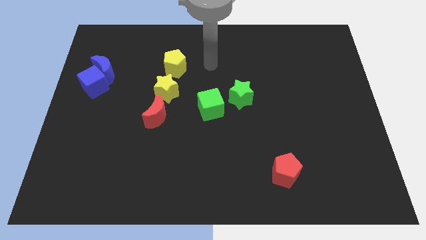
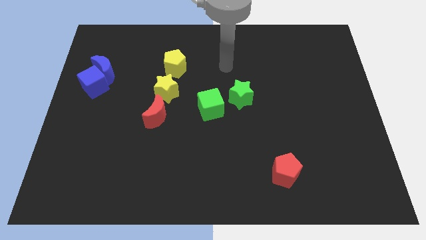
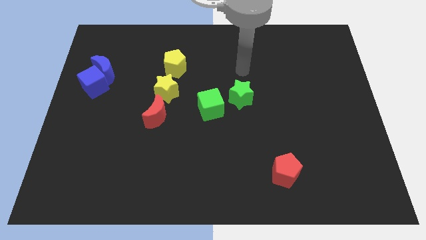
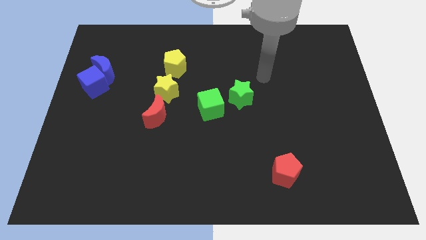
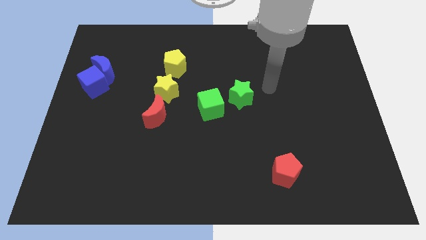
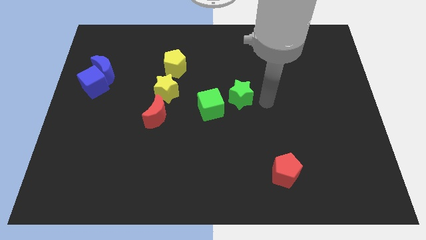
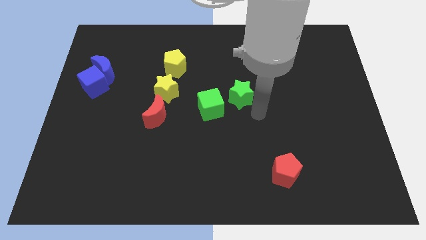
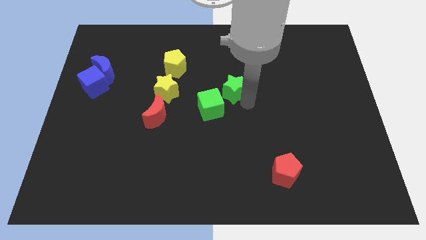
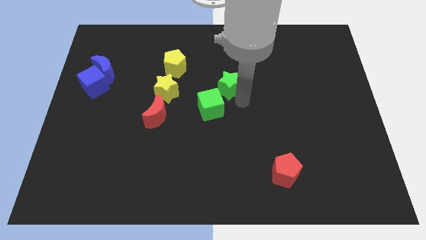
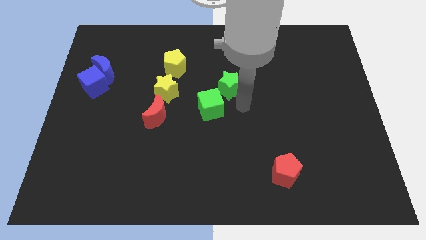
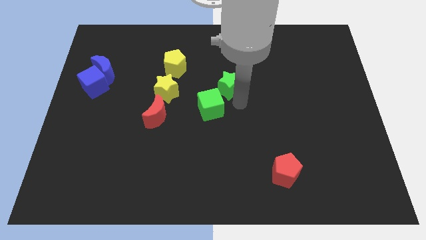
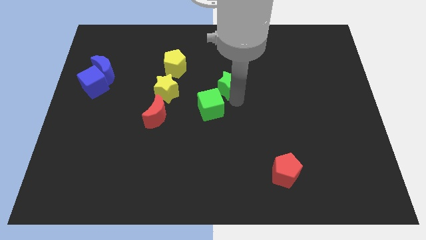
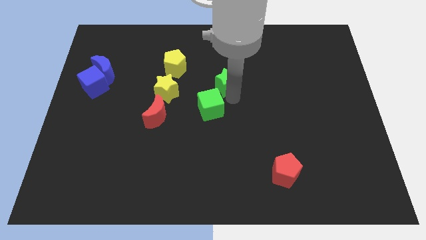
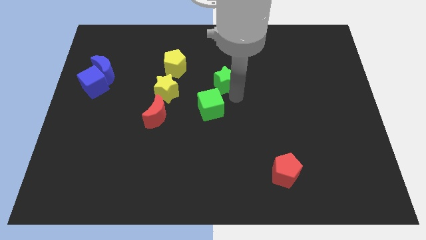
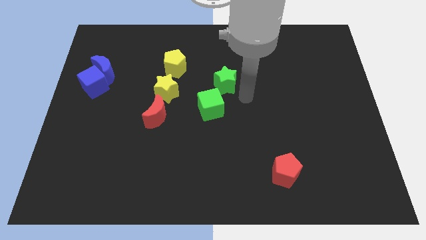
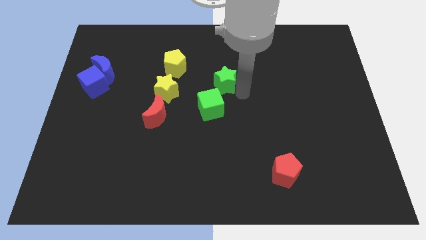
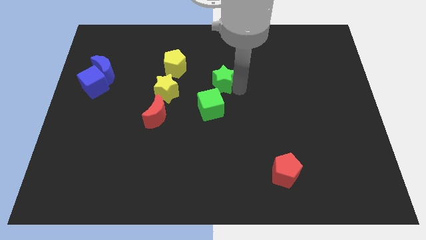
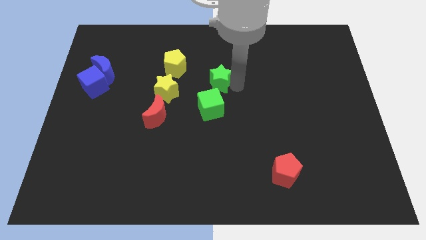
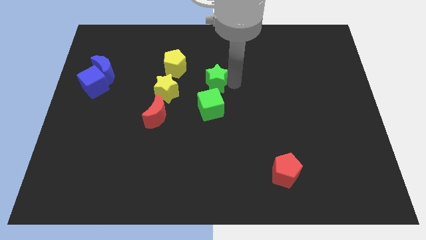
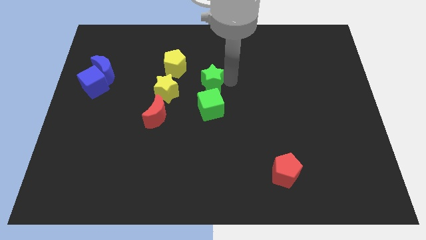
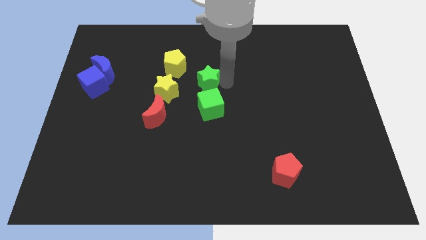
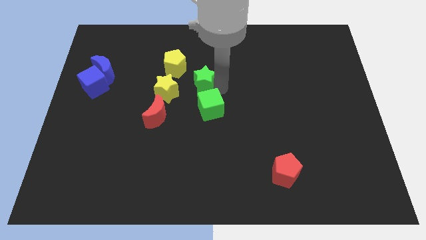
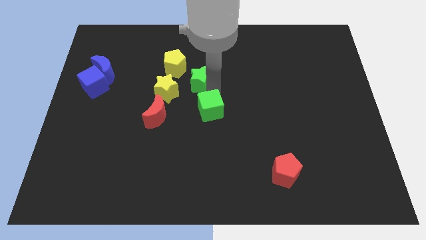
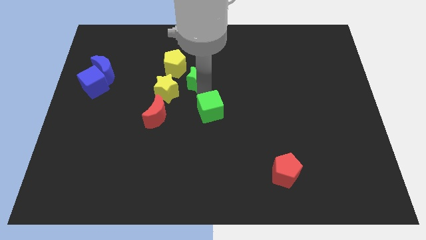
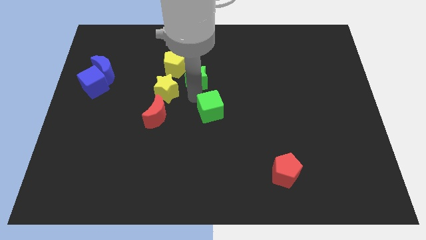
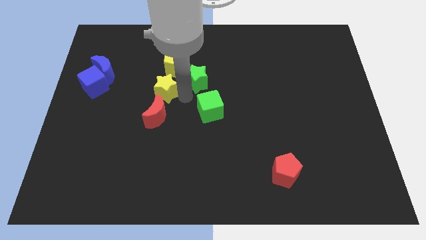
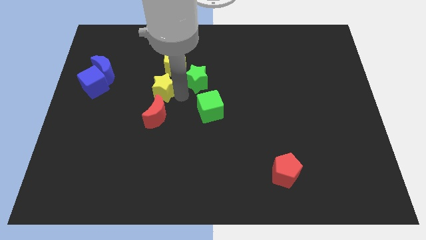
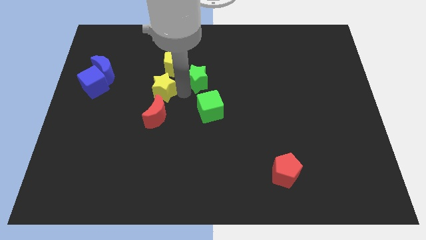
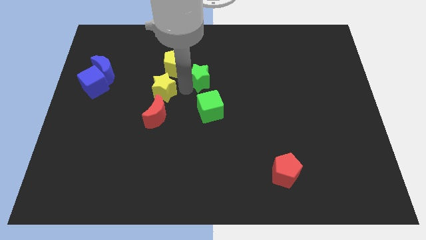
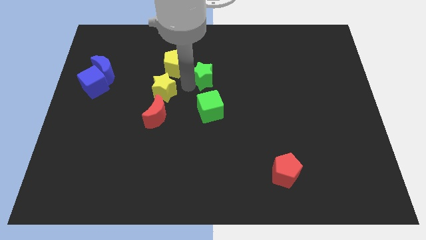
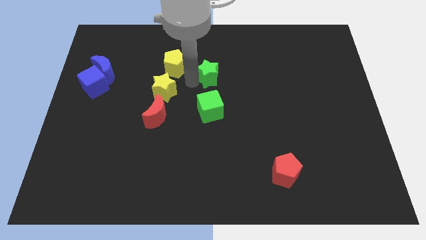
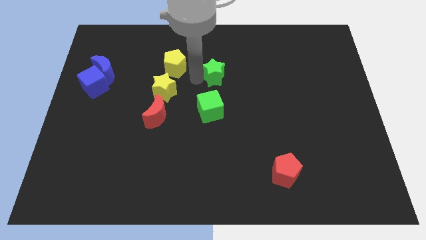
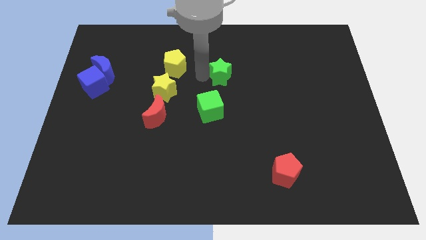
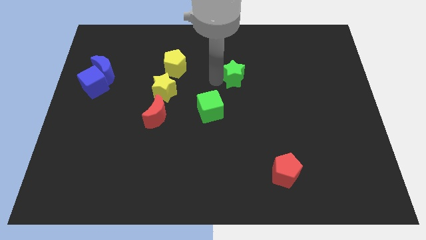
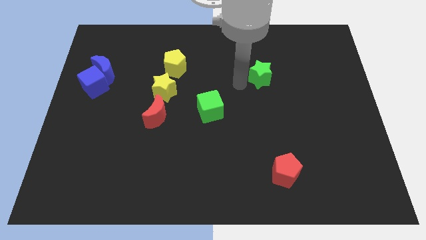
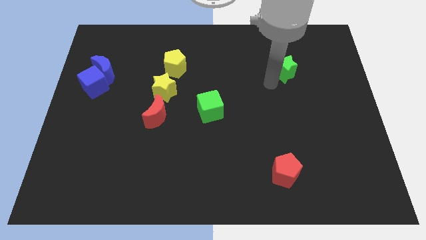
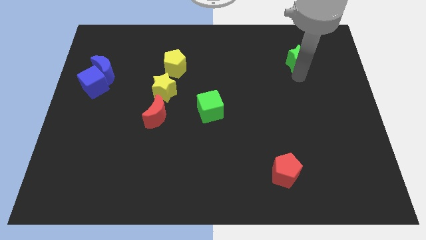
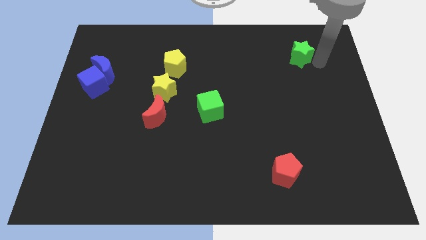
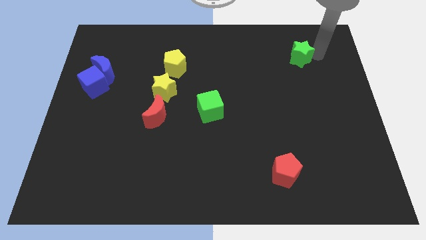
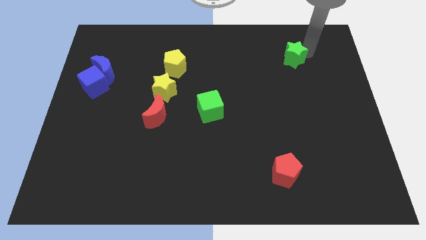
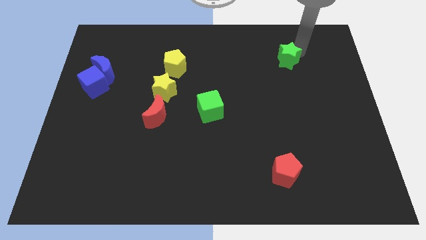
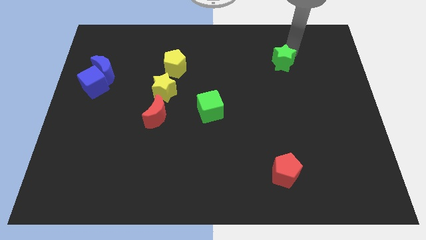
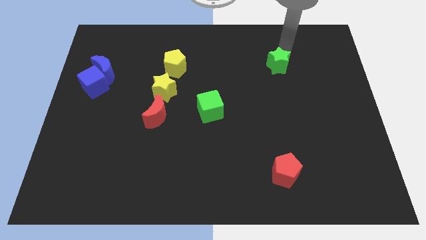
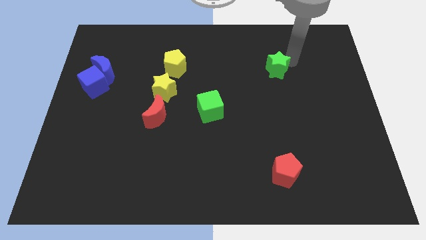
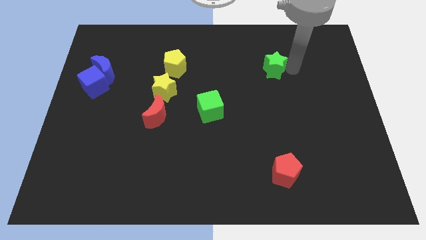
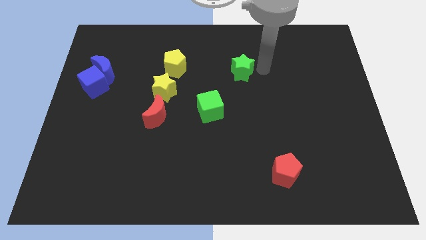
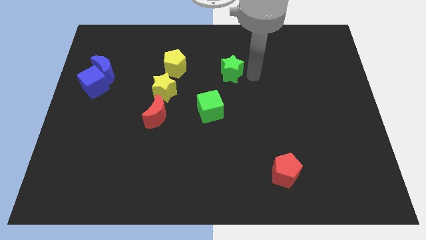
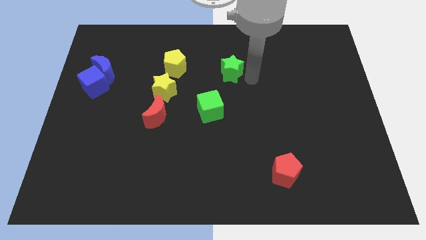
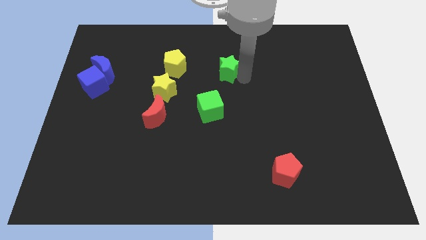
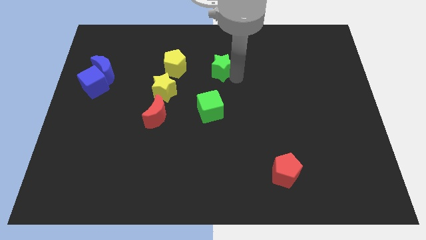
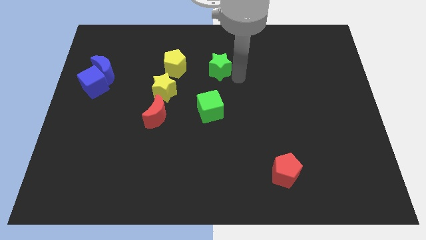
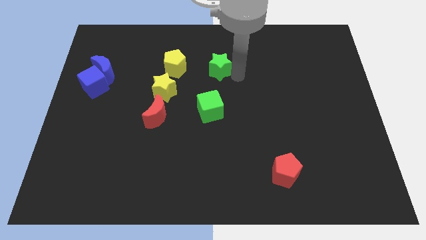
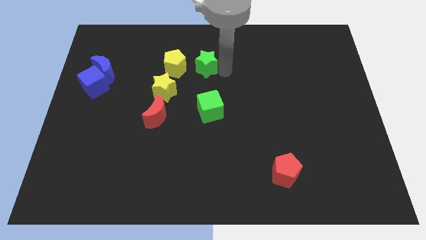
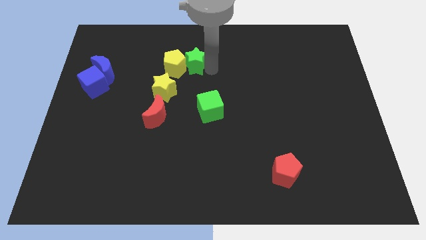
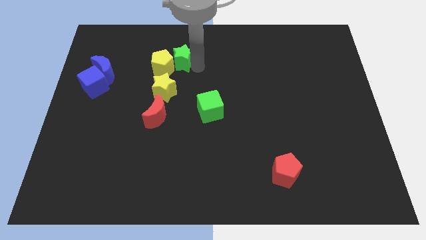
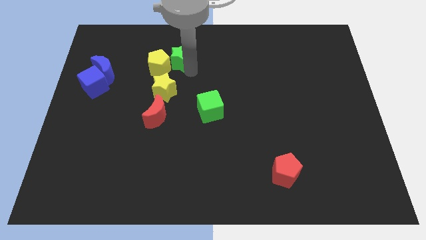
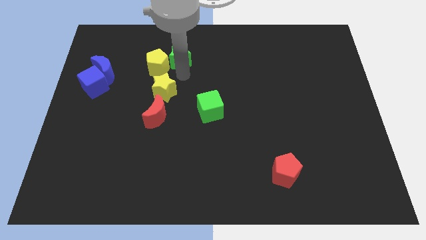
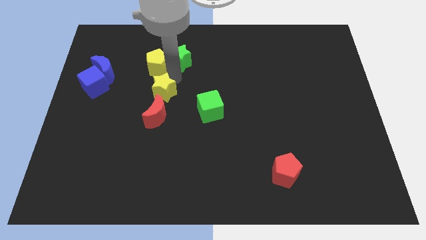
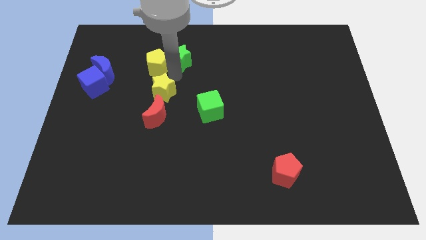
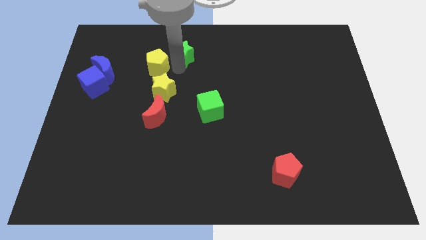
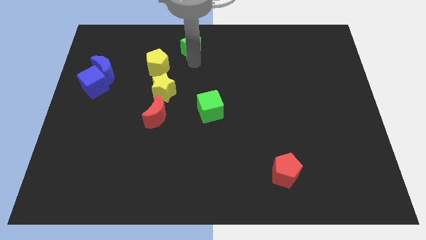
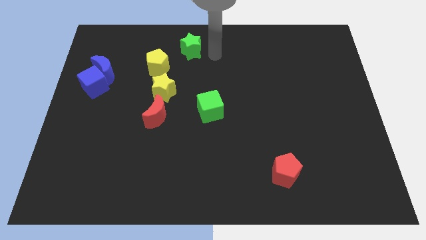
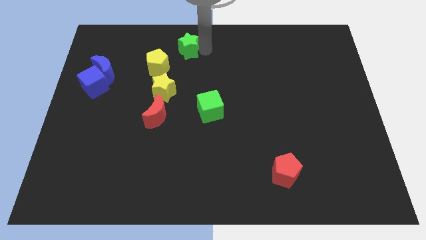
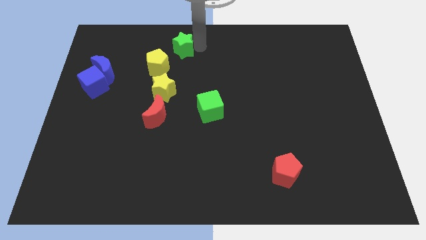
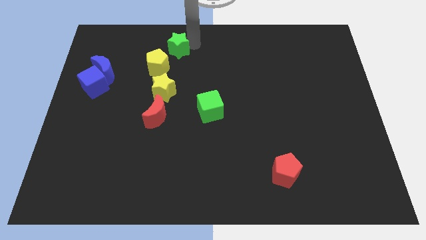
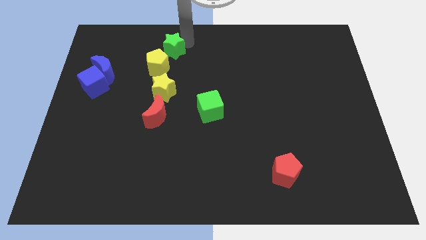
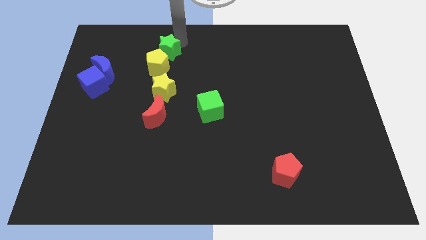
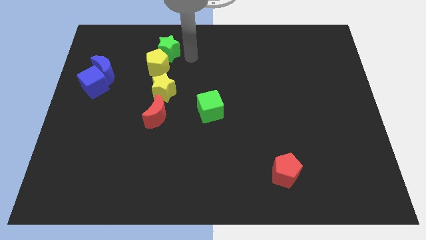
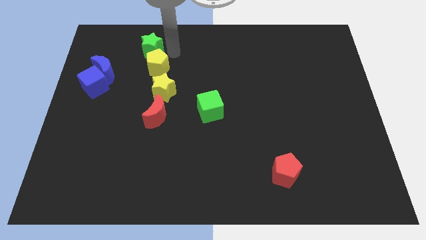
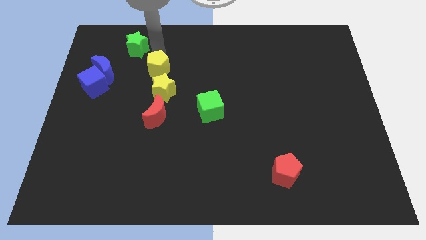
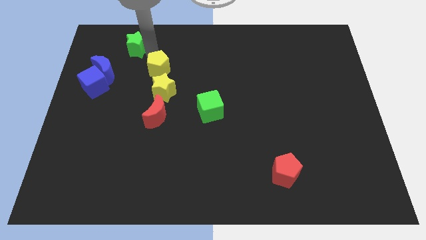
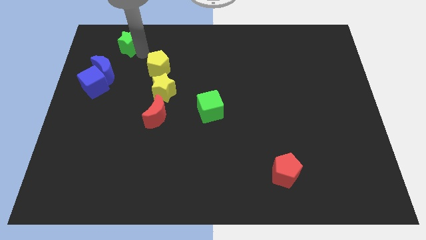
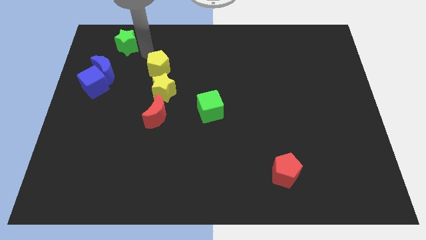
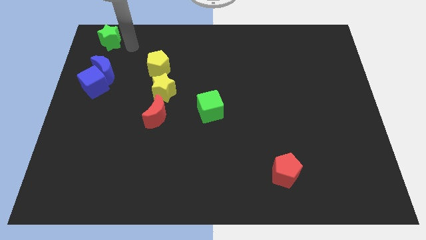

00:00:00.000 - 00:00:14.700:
put the green star to the top left
